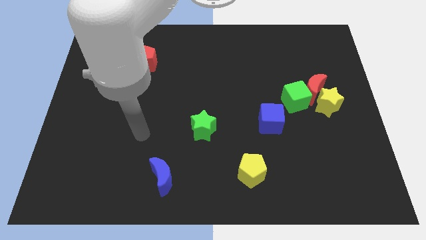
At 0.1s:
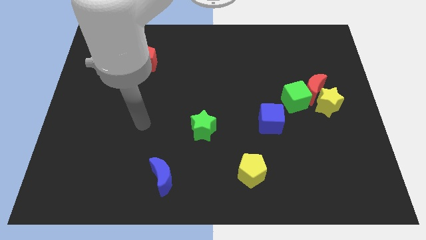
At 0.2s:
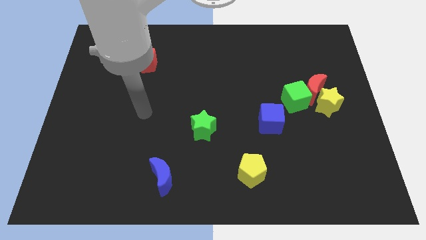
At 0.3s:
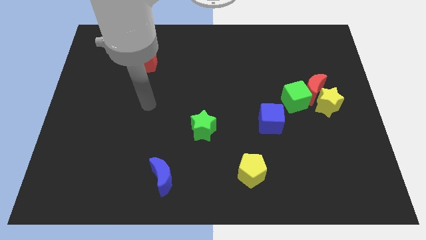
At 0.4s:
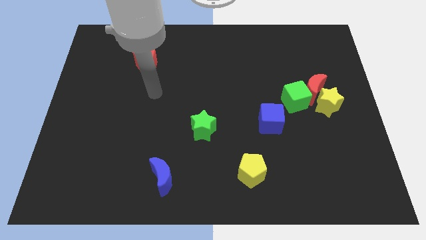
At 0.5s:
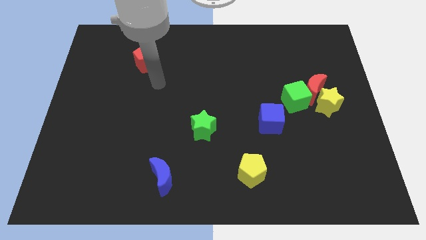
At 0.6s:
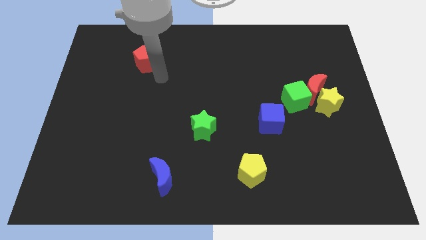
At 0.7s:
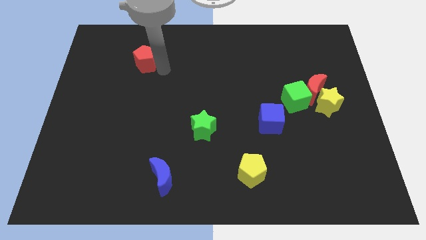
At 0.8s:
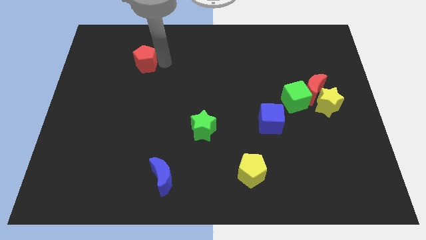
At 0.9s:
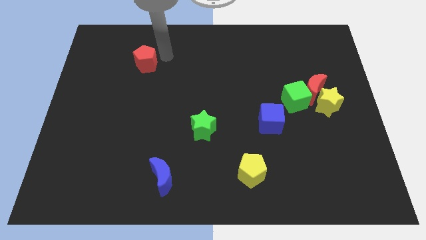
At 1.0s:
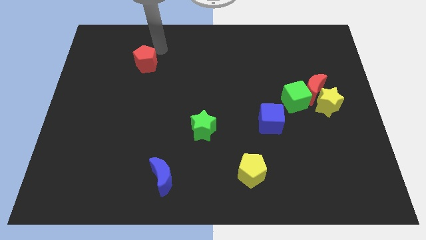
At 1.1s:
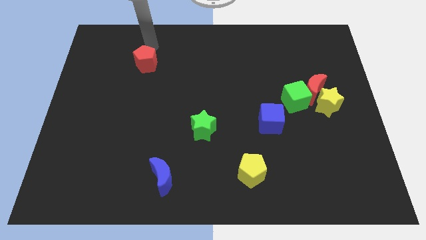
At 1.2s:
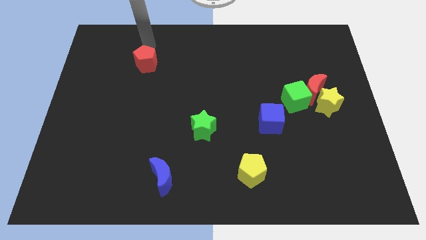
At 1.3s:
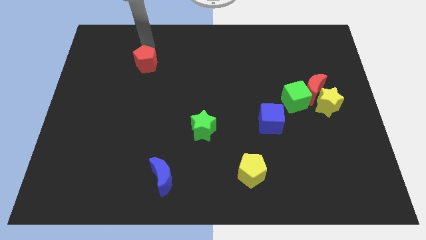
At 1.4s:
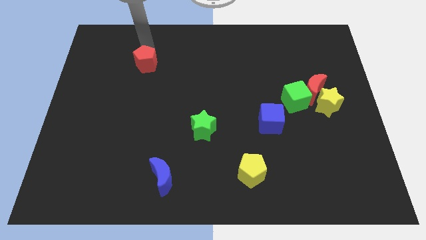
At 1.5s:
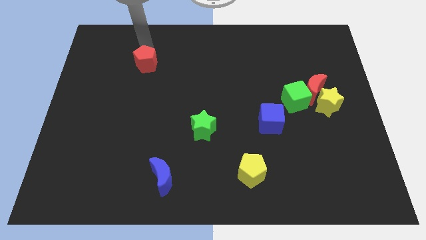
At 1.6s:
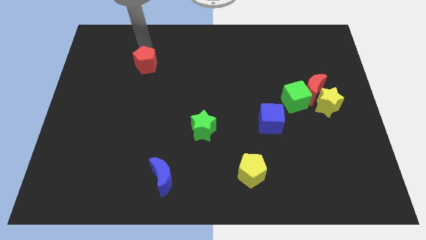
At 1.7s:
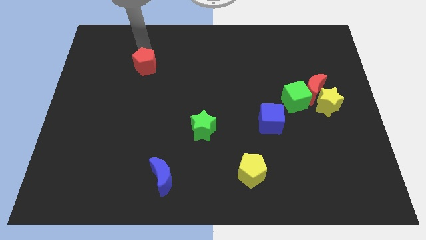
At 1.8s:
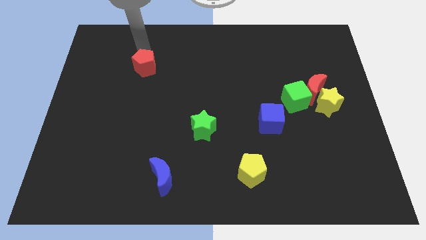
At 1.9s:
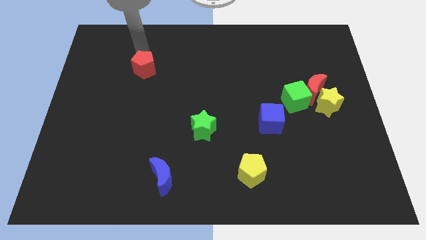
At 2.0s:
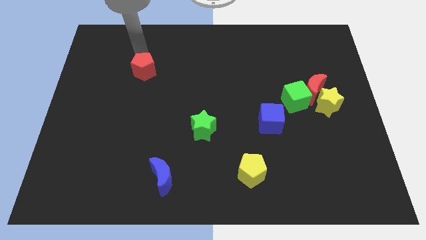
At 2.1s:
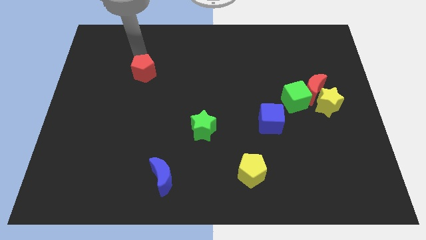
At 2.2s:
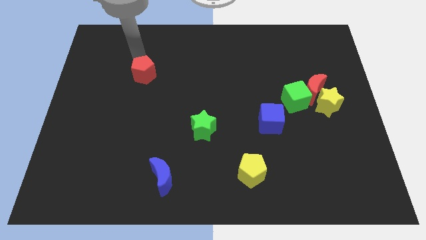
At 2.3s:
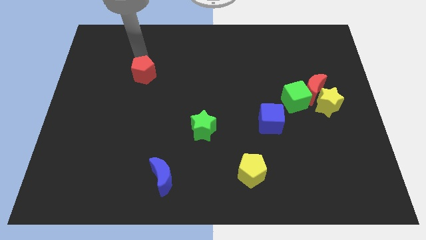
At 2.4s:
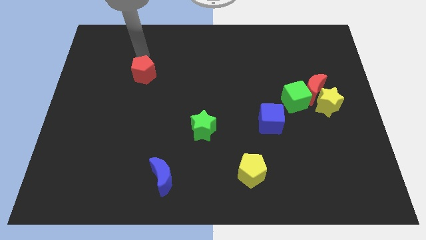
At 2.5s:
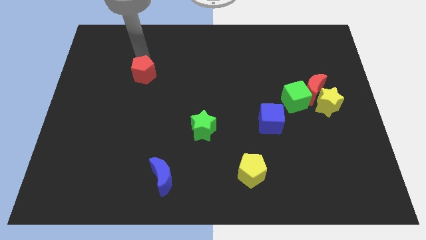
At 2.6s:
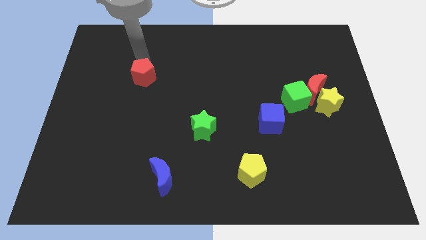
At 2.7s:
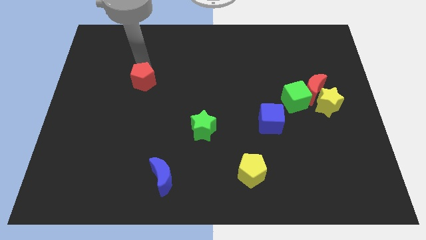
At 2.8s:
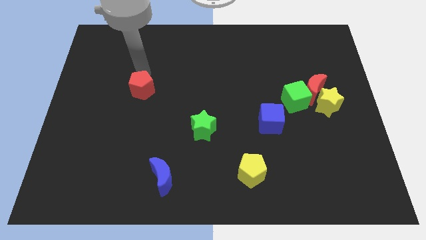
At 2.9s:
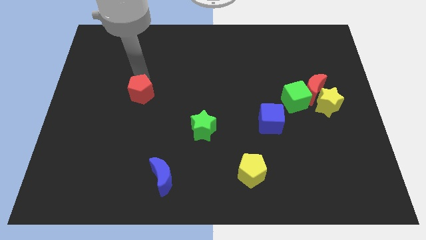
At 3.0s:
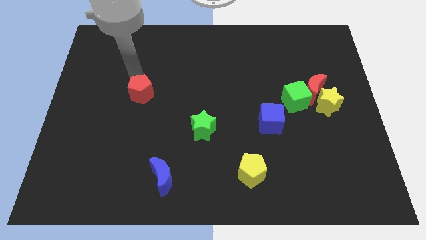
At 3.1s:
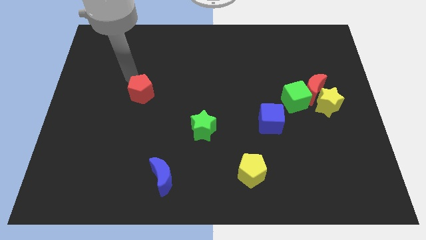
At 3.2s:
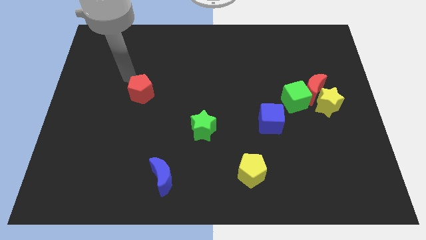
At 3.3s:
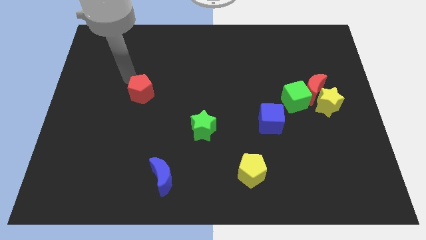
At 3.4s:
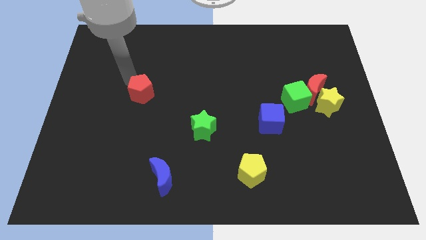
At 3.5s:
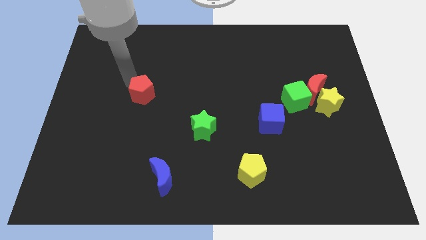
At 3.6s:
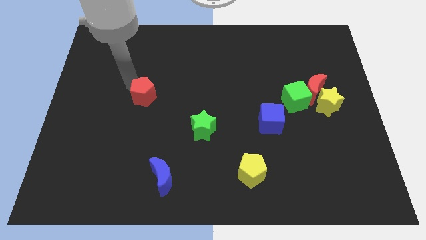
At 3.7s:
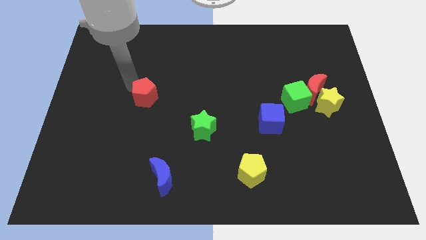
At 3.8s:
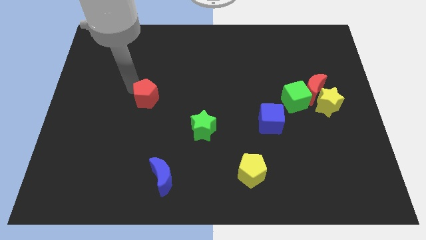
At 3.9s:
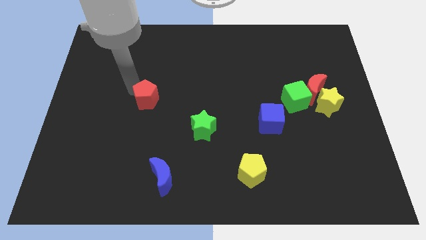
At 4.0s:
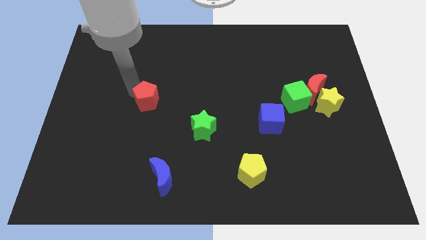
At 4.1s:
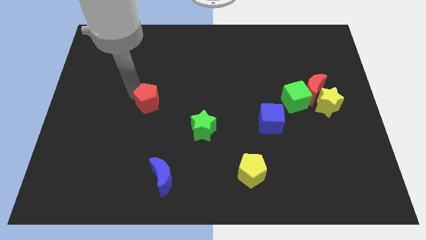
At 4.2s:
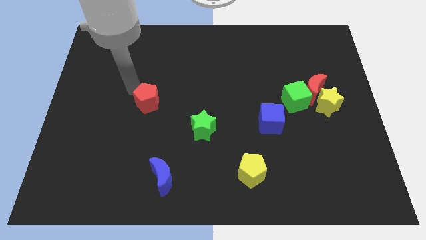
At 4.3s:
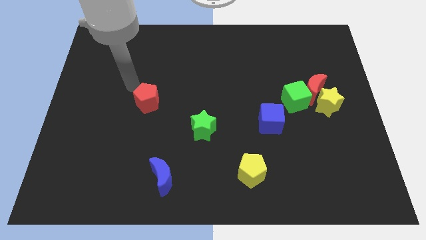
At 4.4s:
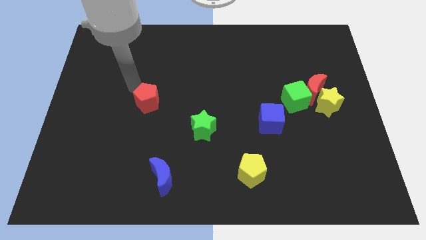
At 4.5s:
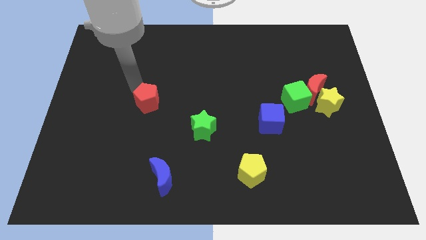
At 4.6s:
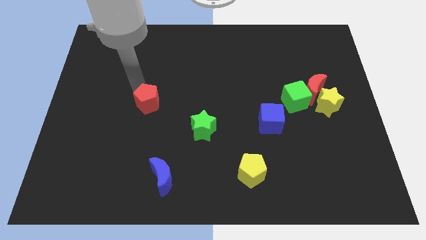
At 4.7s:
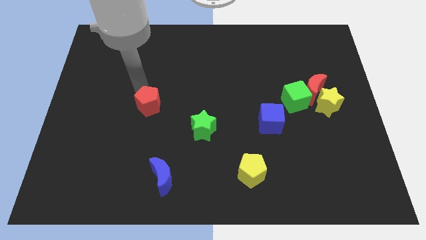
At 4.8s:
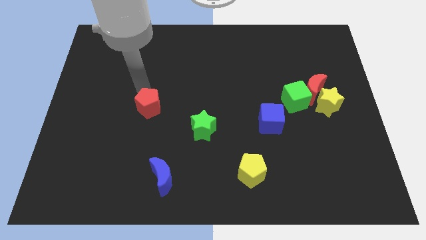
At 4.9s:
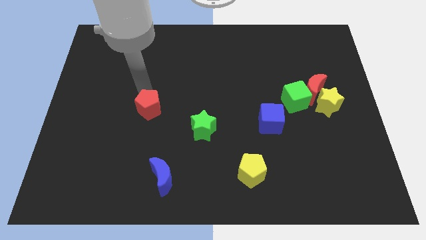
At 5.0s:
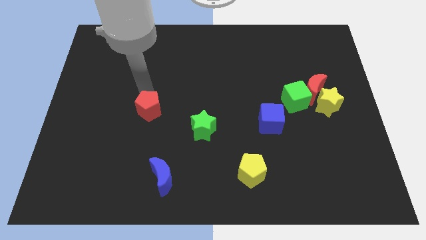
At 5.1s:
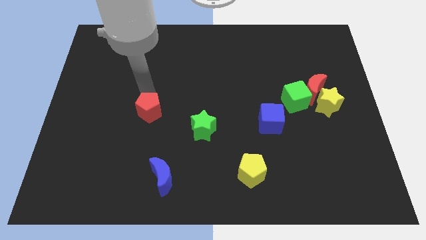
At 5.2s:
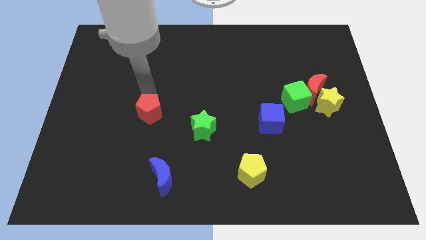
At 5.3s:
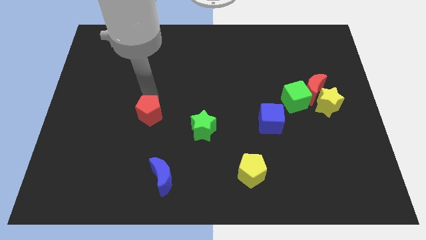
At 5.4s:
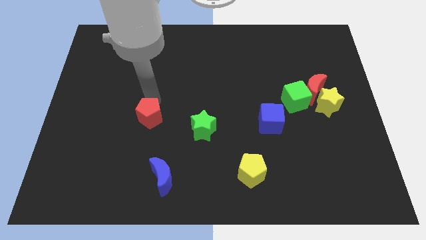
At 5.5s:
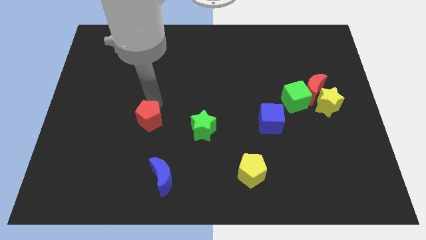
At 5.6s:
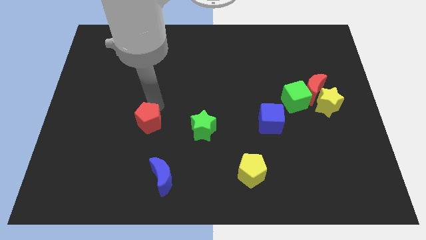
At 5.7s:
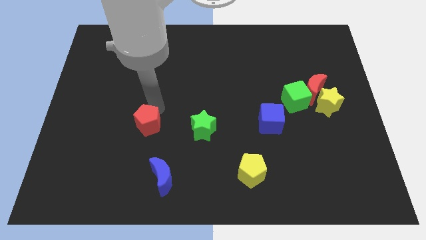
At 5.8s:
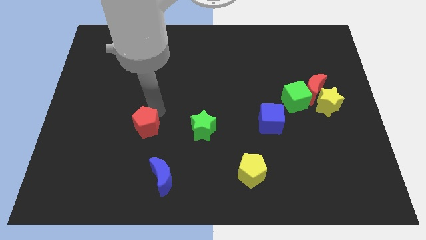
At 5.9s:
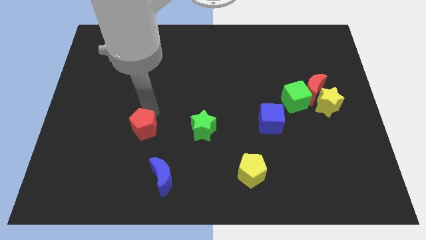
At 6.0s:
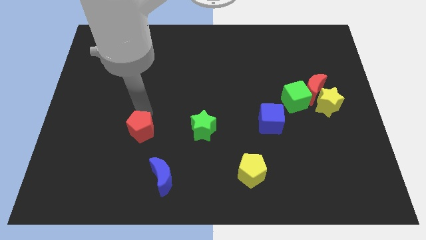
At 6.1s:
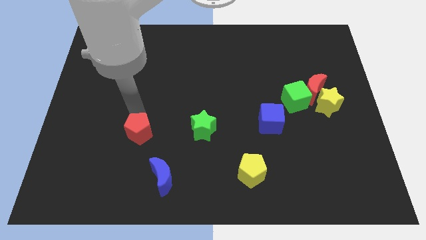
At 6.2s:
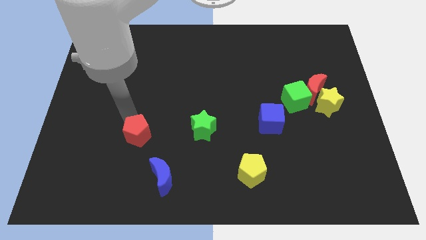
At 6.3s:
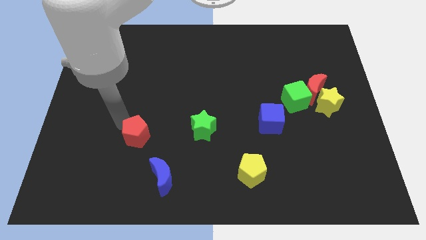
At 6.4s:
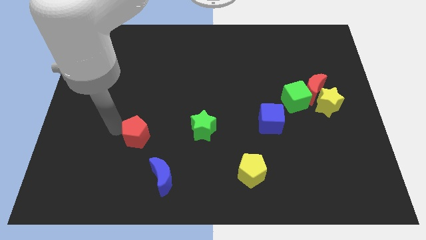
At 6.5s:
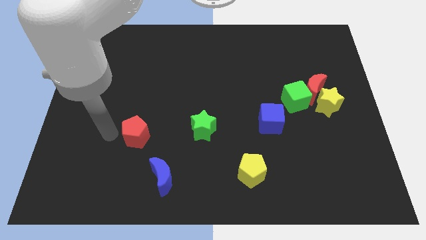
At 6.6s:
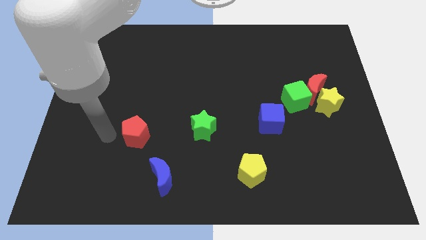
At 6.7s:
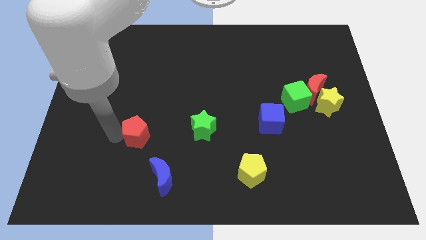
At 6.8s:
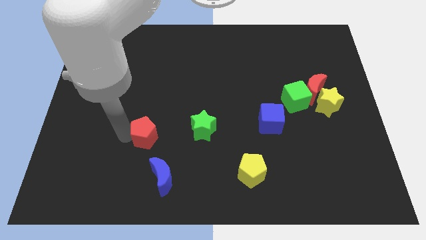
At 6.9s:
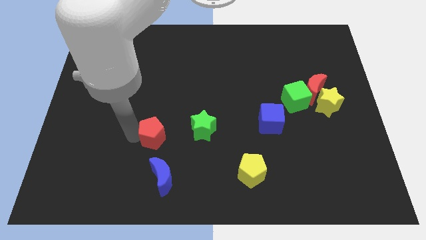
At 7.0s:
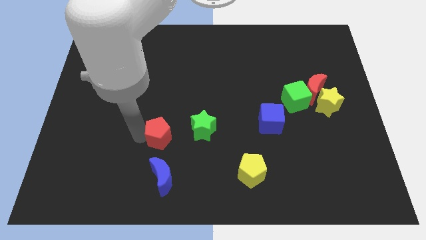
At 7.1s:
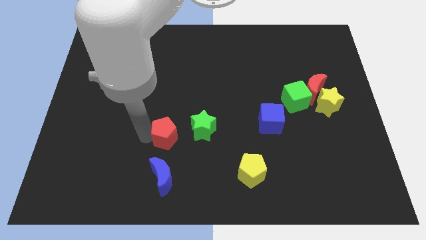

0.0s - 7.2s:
push the red pentagon diagonally down and to the left of the green star

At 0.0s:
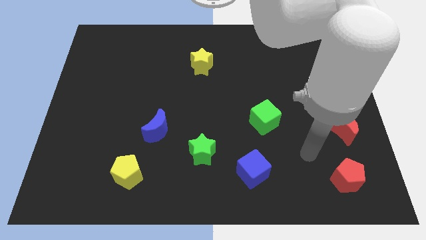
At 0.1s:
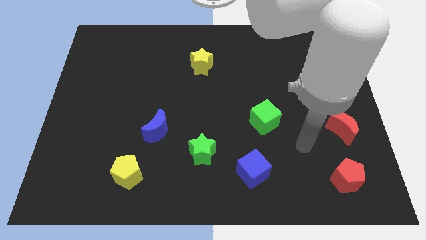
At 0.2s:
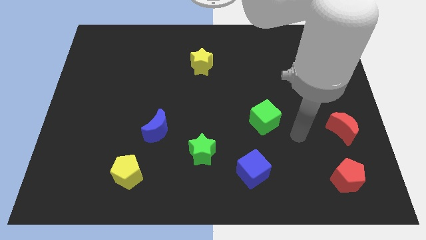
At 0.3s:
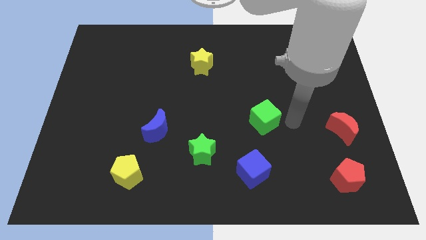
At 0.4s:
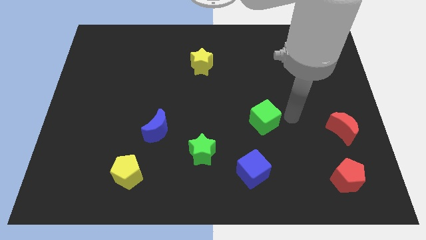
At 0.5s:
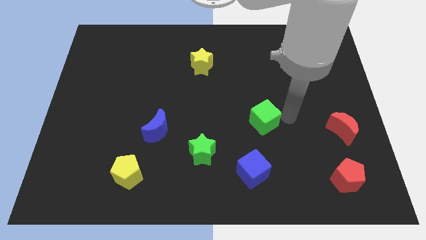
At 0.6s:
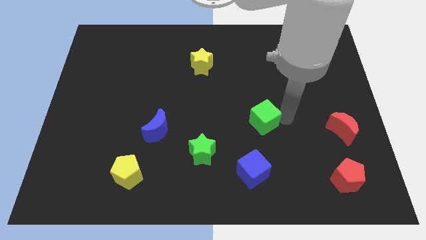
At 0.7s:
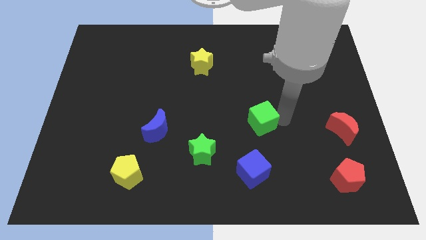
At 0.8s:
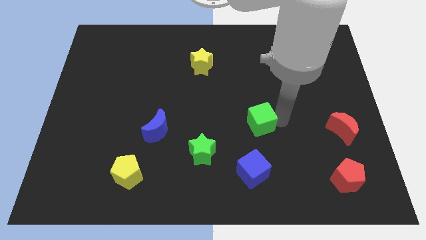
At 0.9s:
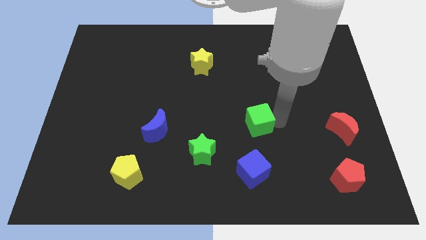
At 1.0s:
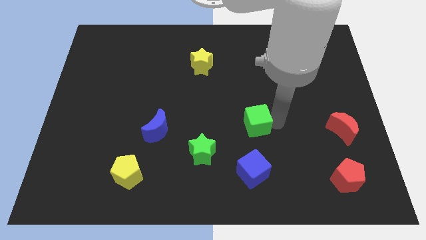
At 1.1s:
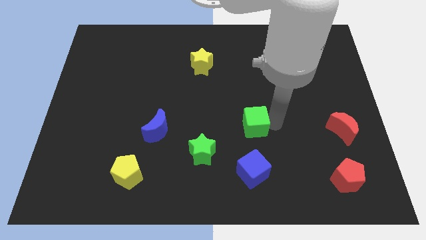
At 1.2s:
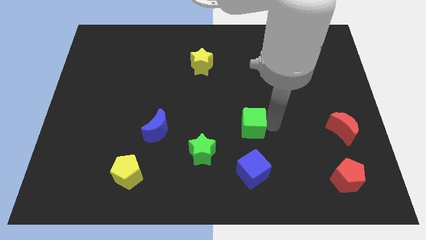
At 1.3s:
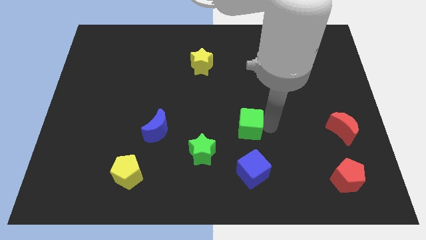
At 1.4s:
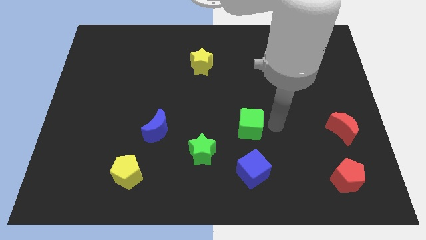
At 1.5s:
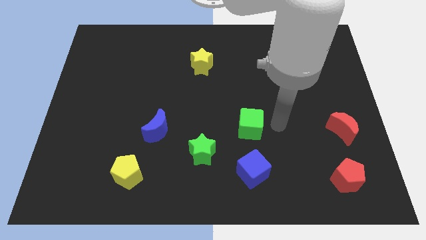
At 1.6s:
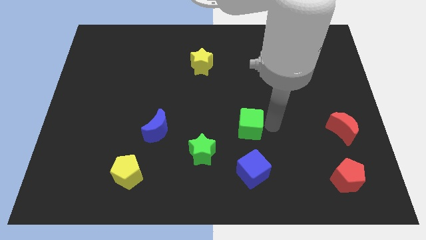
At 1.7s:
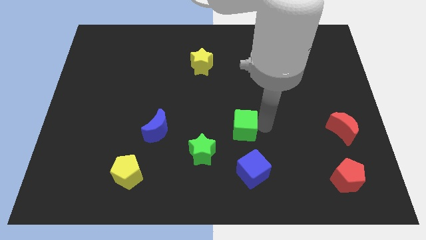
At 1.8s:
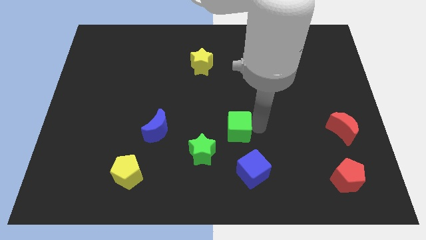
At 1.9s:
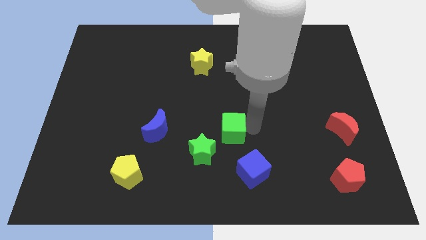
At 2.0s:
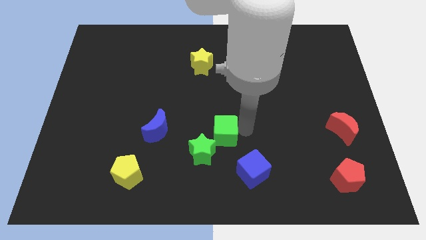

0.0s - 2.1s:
push the green cube just right of the blue moon
